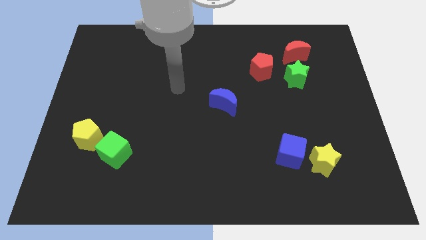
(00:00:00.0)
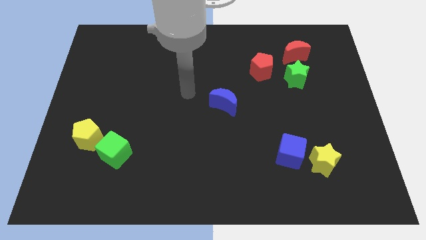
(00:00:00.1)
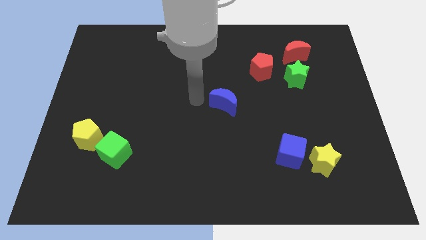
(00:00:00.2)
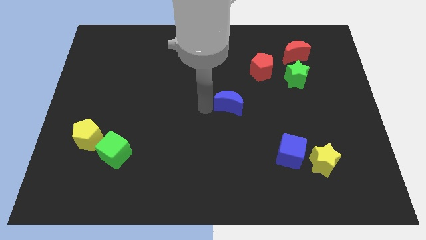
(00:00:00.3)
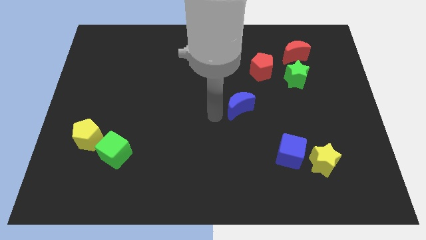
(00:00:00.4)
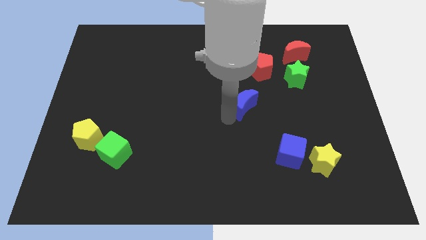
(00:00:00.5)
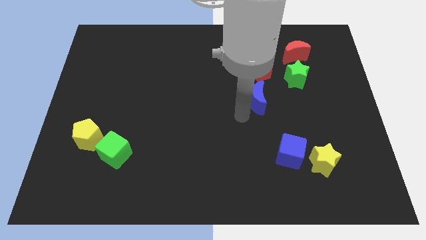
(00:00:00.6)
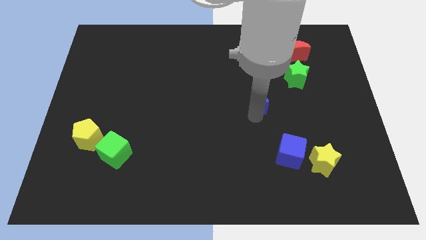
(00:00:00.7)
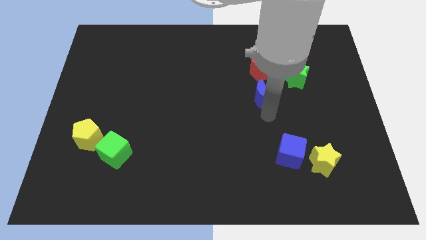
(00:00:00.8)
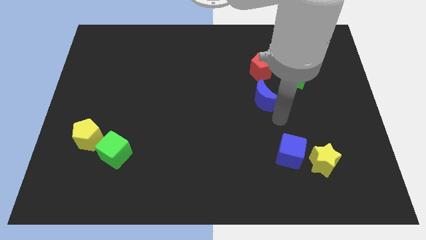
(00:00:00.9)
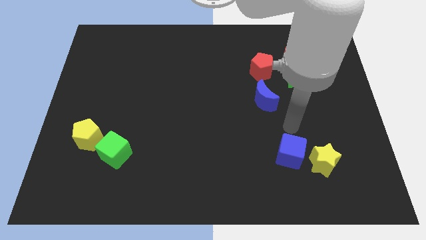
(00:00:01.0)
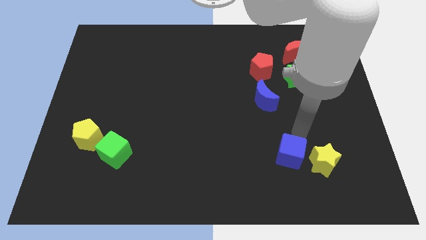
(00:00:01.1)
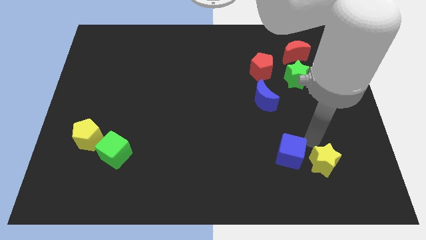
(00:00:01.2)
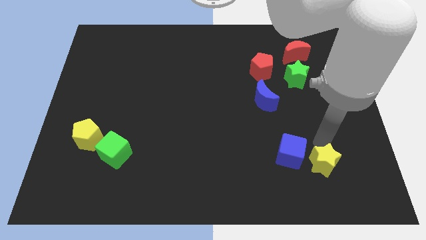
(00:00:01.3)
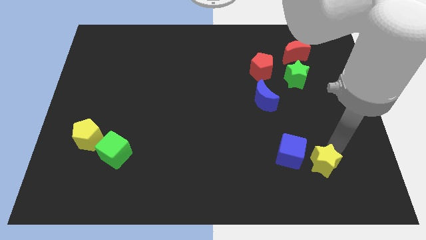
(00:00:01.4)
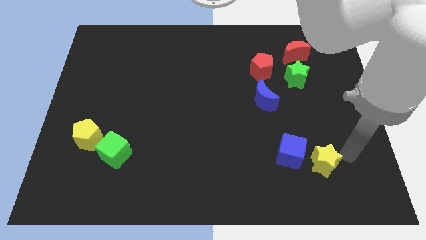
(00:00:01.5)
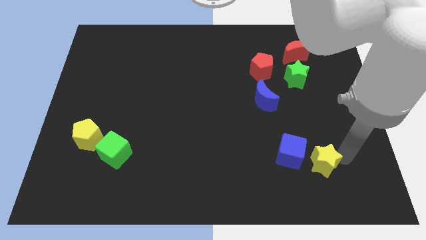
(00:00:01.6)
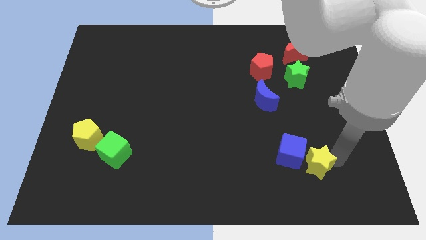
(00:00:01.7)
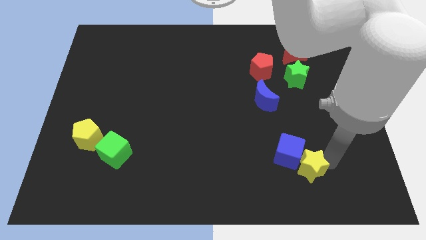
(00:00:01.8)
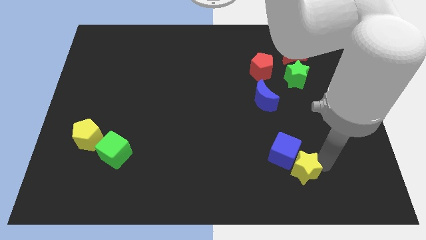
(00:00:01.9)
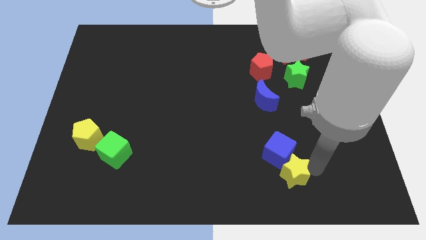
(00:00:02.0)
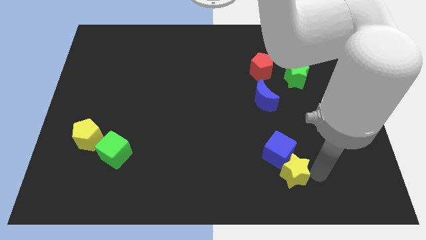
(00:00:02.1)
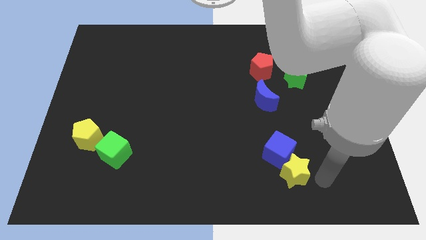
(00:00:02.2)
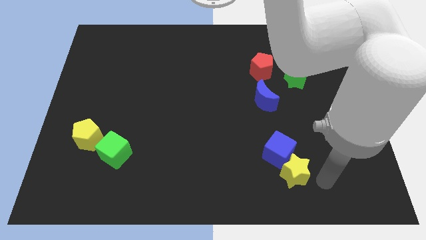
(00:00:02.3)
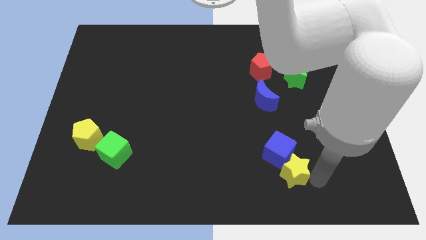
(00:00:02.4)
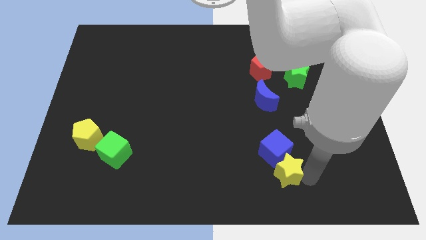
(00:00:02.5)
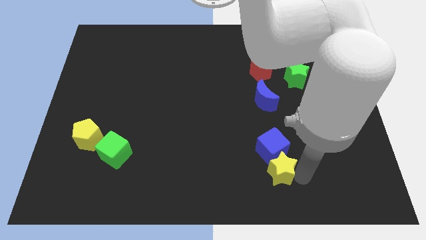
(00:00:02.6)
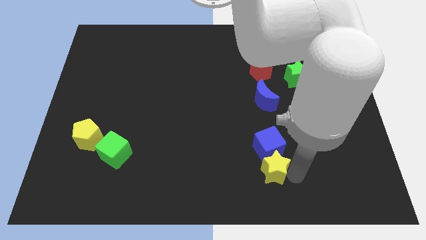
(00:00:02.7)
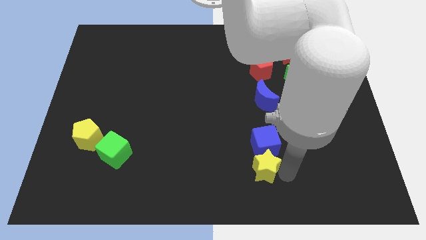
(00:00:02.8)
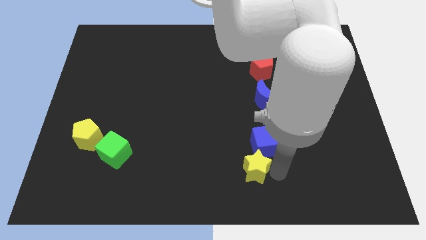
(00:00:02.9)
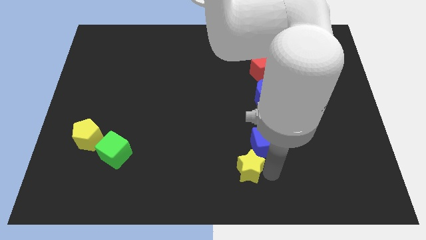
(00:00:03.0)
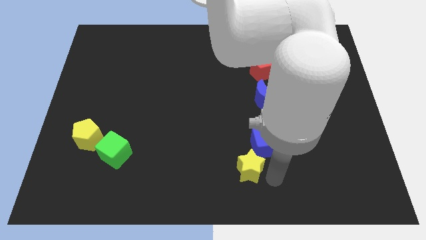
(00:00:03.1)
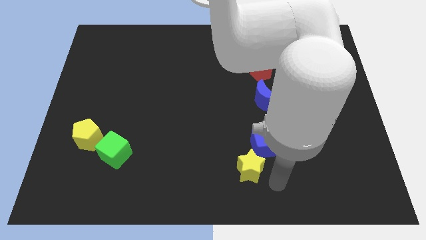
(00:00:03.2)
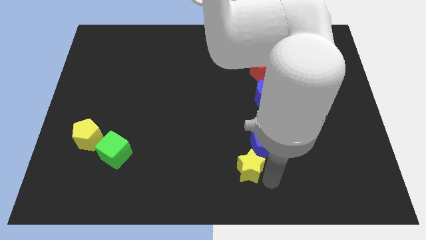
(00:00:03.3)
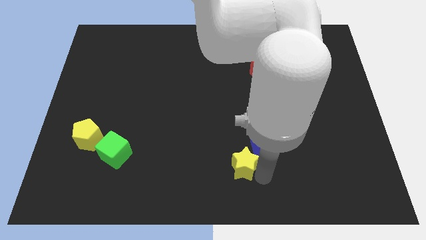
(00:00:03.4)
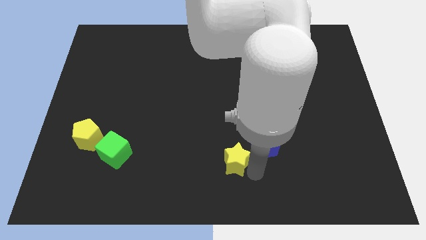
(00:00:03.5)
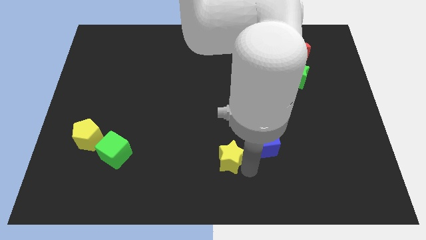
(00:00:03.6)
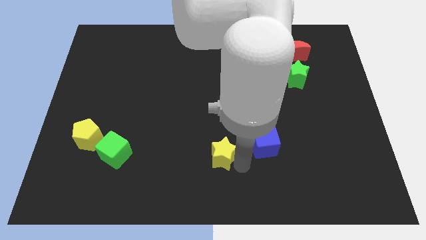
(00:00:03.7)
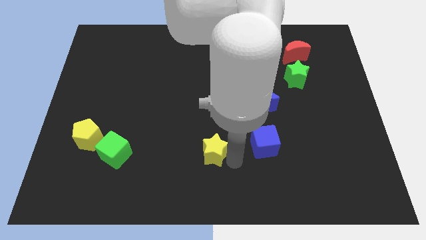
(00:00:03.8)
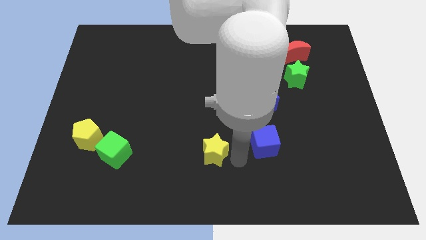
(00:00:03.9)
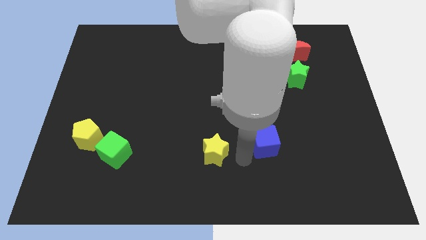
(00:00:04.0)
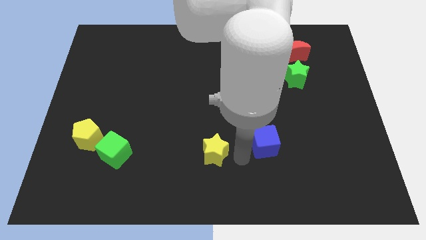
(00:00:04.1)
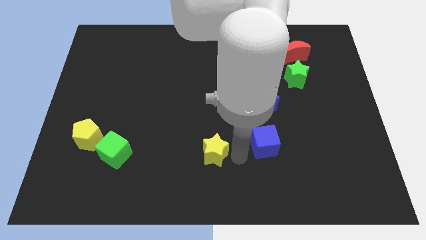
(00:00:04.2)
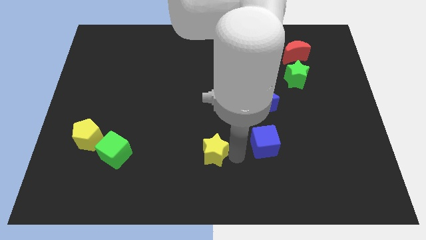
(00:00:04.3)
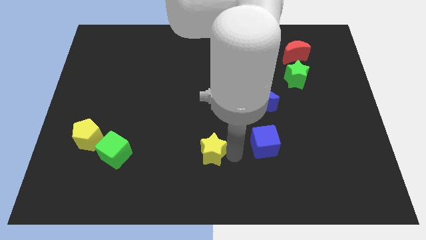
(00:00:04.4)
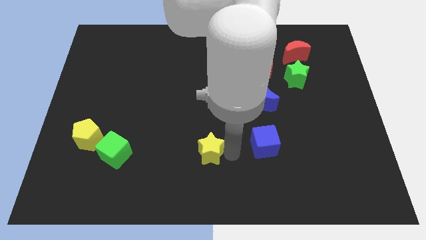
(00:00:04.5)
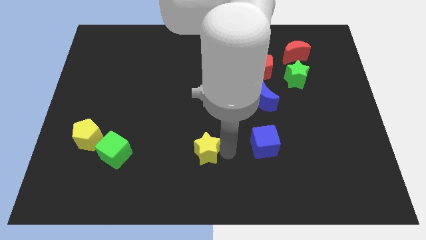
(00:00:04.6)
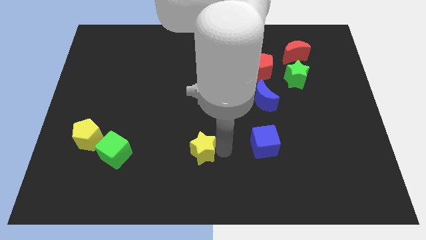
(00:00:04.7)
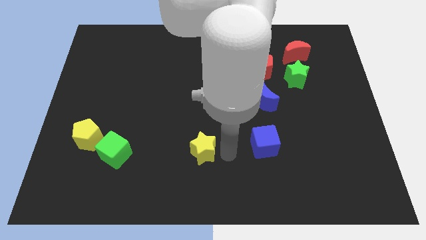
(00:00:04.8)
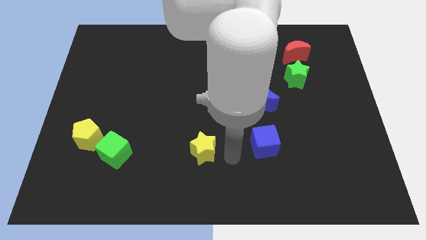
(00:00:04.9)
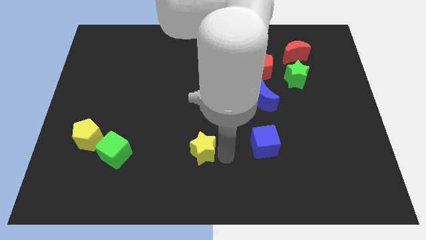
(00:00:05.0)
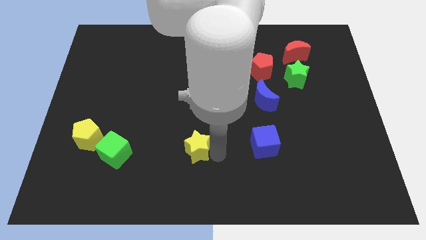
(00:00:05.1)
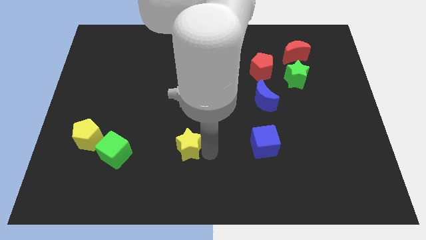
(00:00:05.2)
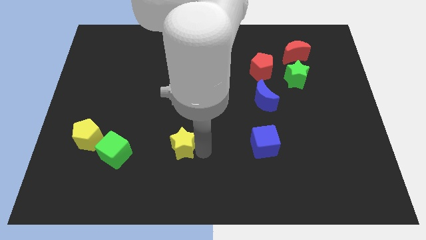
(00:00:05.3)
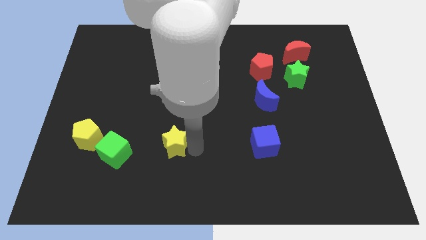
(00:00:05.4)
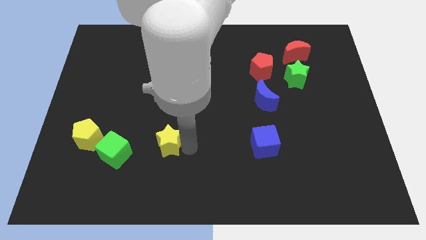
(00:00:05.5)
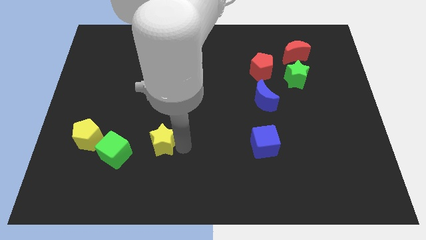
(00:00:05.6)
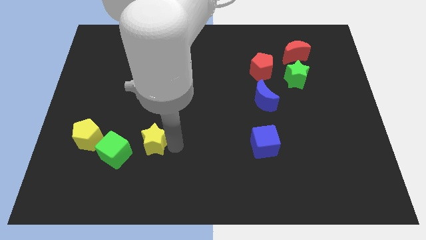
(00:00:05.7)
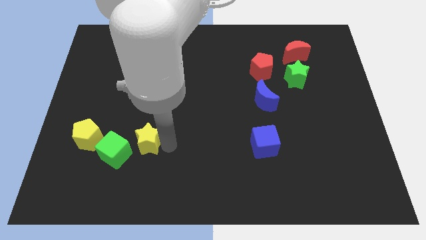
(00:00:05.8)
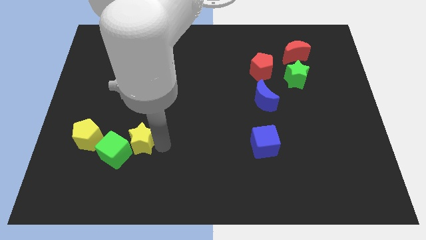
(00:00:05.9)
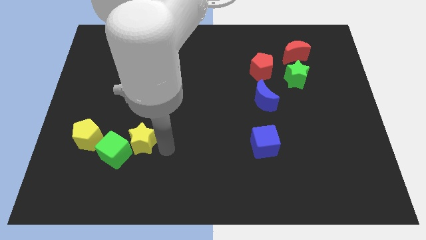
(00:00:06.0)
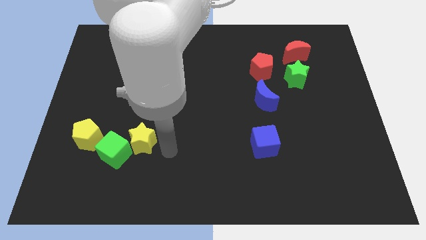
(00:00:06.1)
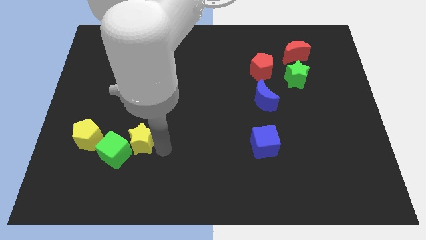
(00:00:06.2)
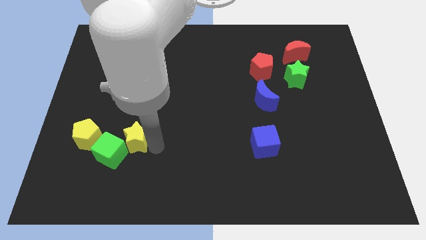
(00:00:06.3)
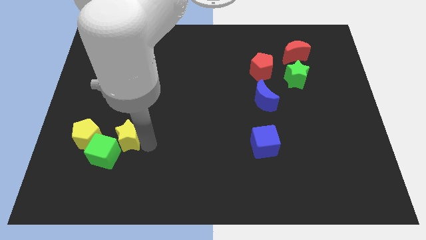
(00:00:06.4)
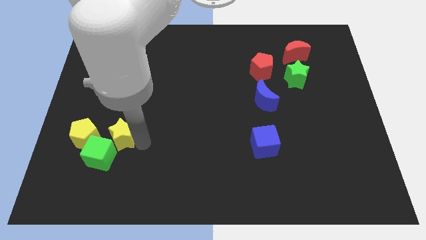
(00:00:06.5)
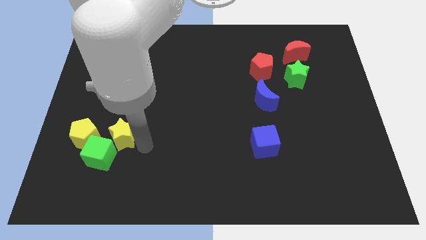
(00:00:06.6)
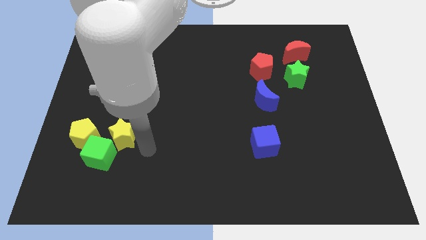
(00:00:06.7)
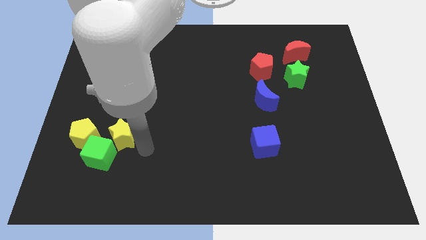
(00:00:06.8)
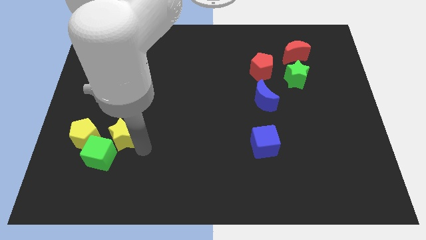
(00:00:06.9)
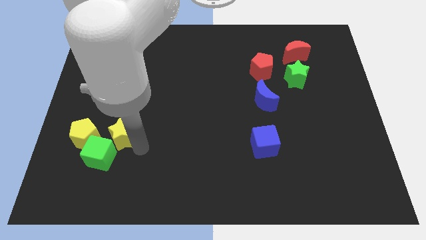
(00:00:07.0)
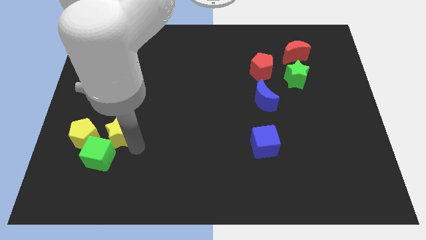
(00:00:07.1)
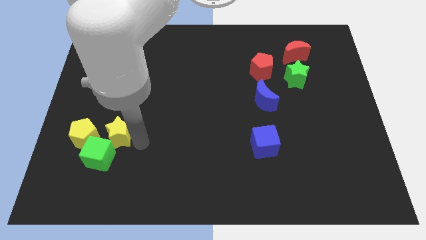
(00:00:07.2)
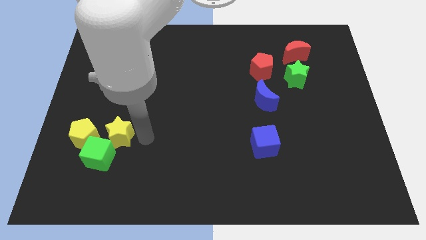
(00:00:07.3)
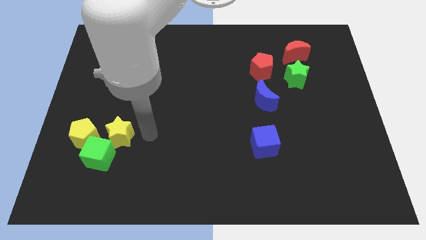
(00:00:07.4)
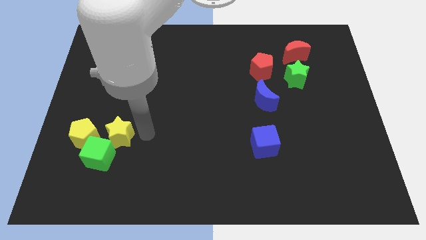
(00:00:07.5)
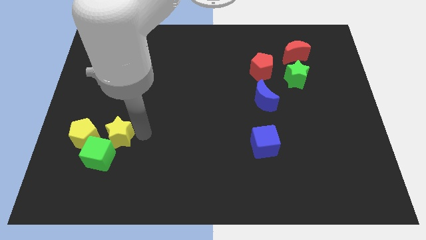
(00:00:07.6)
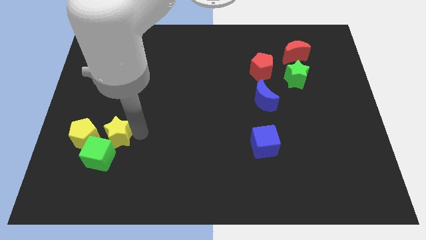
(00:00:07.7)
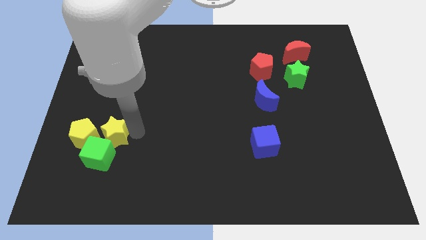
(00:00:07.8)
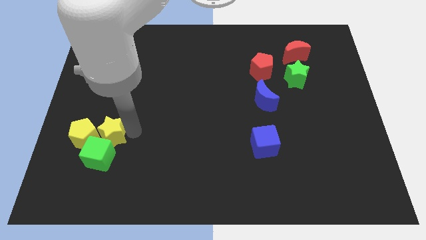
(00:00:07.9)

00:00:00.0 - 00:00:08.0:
push the yellow star next to the yellow pentagon
